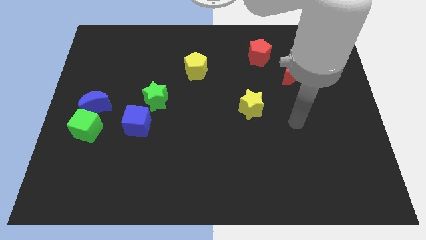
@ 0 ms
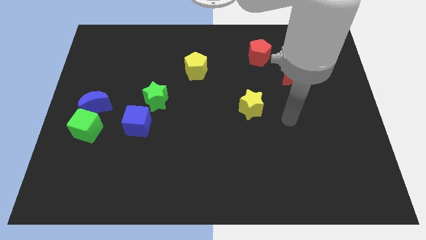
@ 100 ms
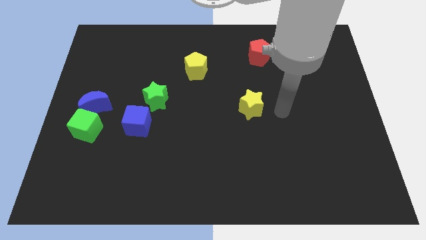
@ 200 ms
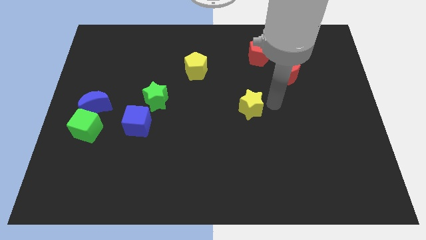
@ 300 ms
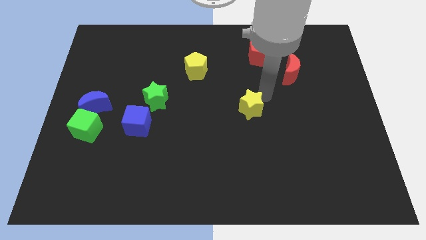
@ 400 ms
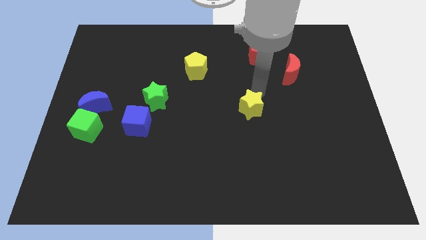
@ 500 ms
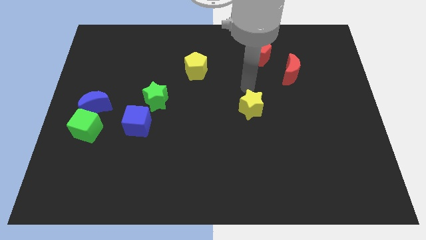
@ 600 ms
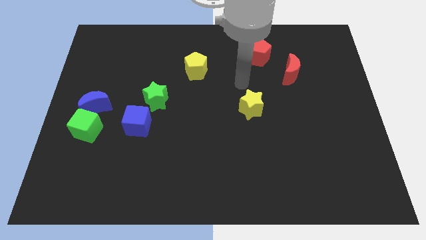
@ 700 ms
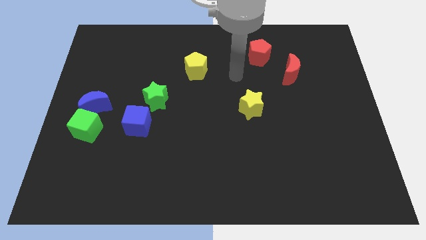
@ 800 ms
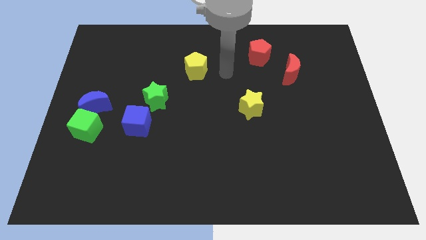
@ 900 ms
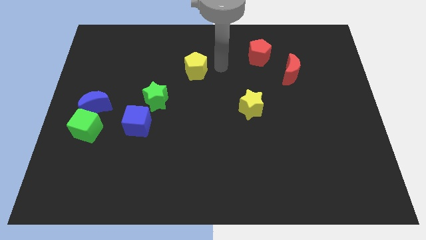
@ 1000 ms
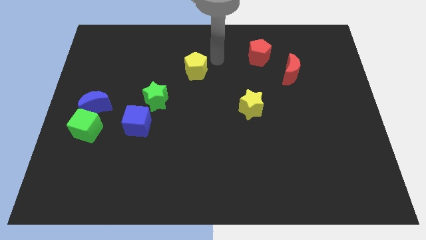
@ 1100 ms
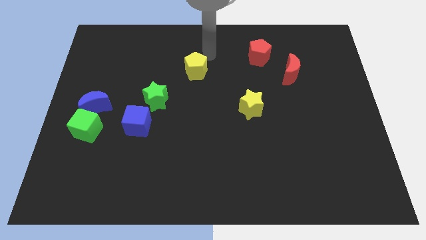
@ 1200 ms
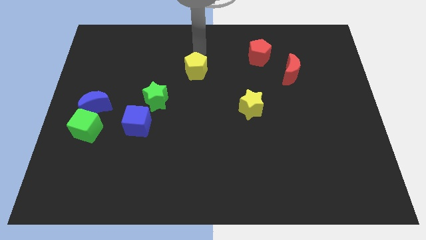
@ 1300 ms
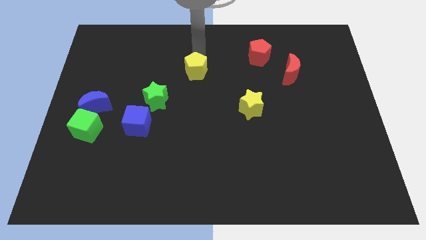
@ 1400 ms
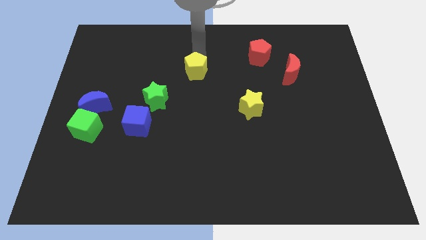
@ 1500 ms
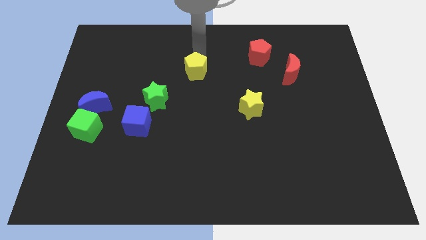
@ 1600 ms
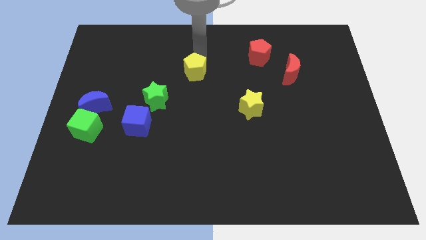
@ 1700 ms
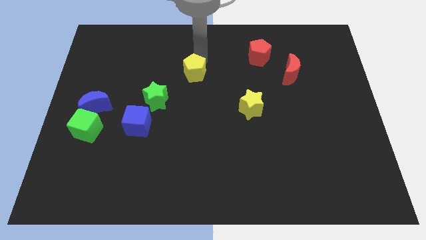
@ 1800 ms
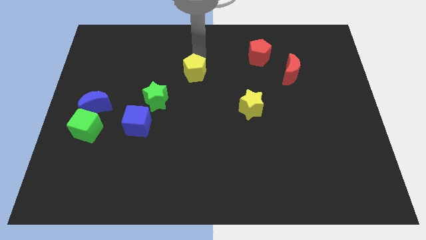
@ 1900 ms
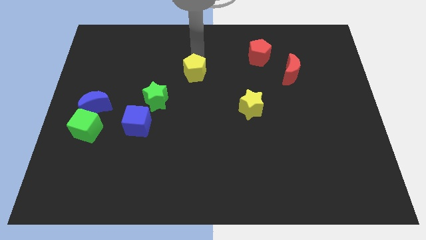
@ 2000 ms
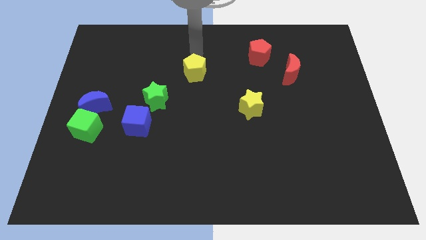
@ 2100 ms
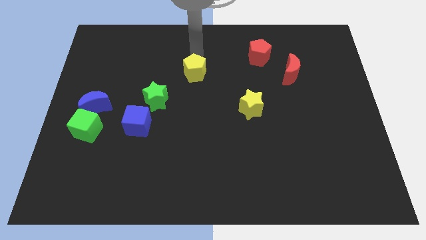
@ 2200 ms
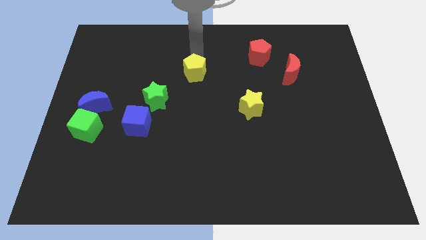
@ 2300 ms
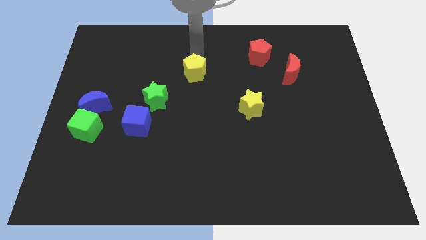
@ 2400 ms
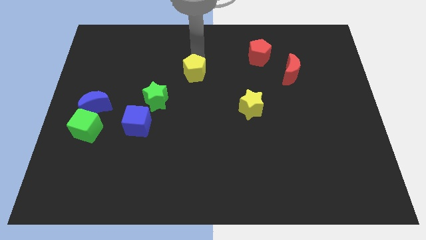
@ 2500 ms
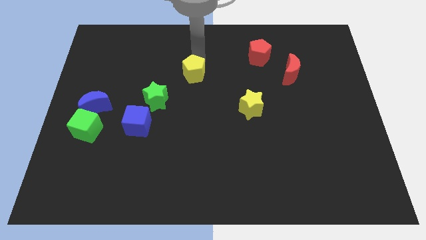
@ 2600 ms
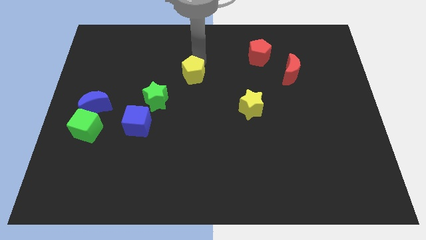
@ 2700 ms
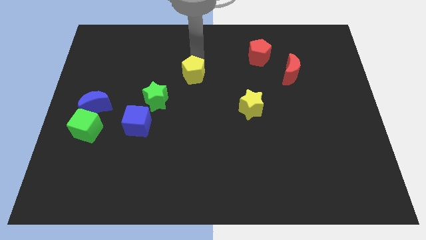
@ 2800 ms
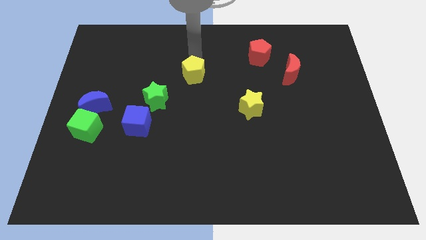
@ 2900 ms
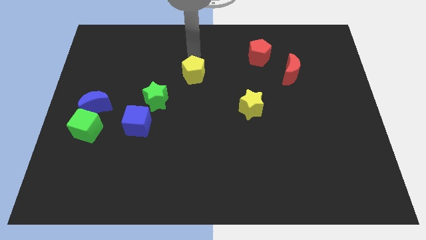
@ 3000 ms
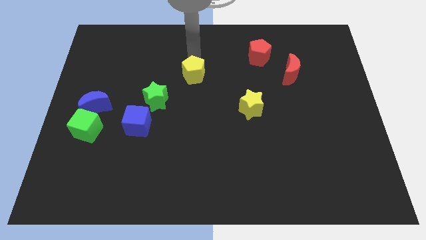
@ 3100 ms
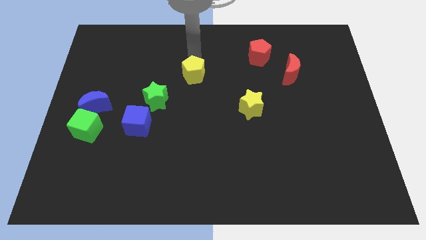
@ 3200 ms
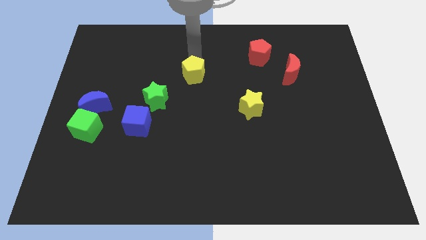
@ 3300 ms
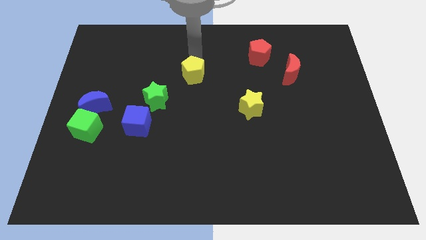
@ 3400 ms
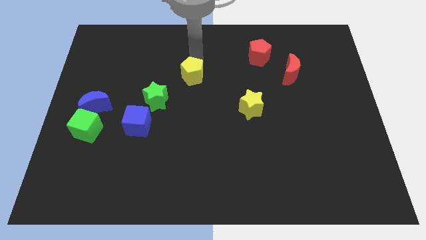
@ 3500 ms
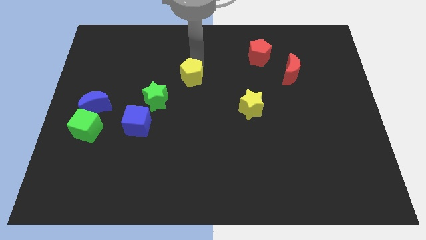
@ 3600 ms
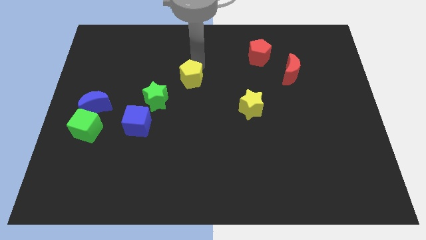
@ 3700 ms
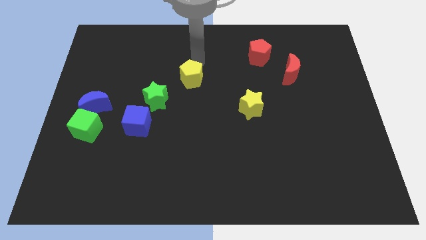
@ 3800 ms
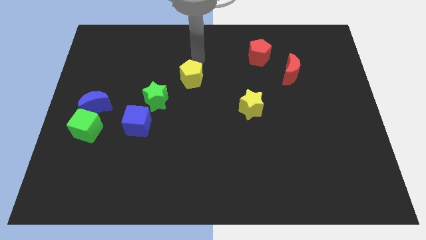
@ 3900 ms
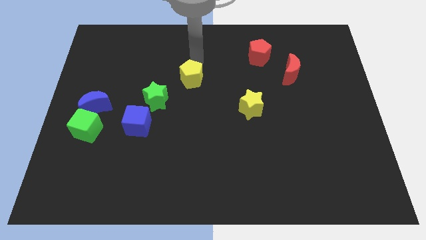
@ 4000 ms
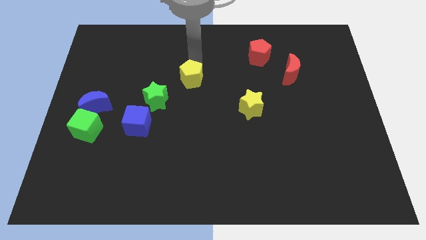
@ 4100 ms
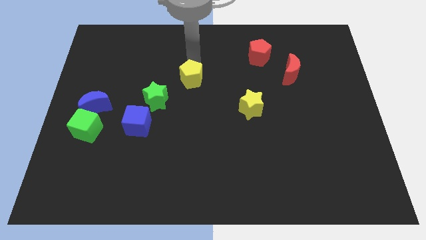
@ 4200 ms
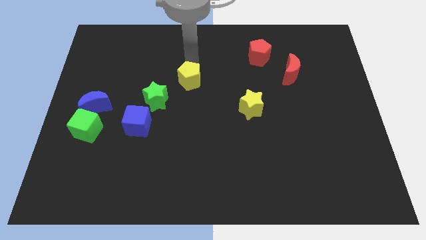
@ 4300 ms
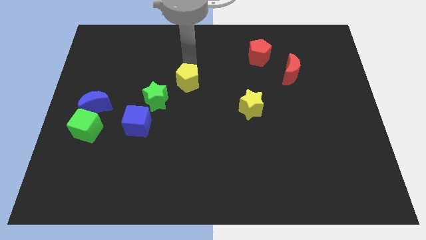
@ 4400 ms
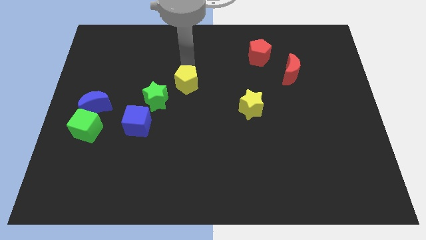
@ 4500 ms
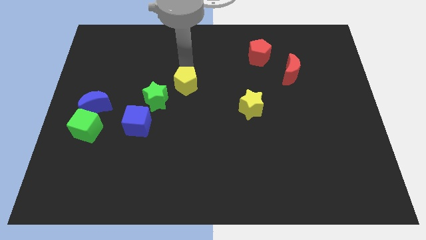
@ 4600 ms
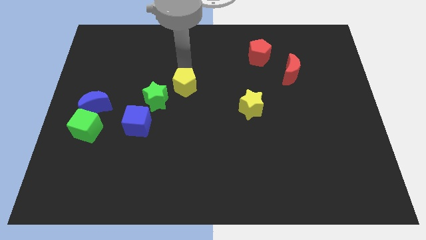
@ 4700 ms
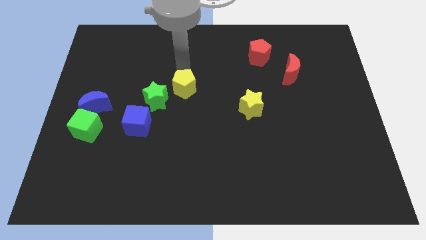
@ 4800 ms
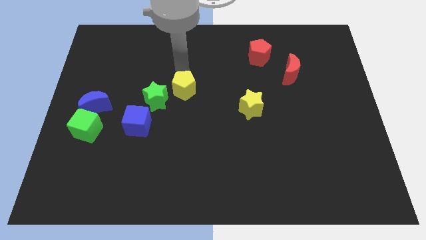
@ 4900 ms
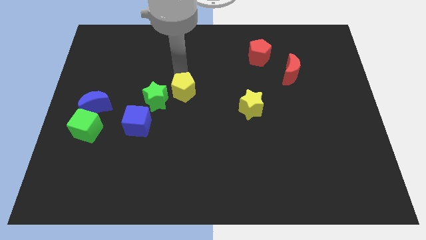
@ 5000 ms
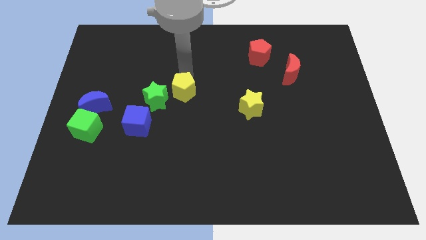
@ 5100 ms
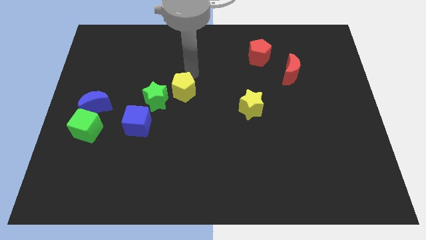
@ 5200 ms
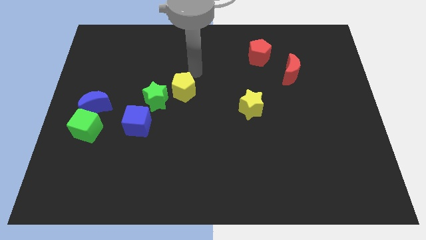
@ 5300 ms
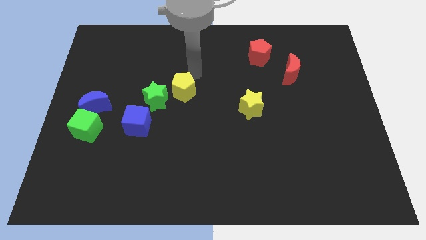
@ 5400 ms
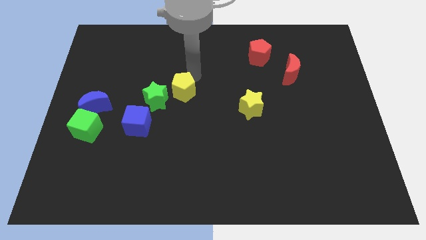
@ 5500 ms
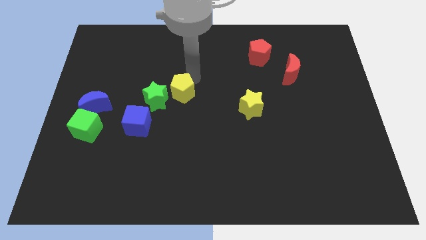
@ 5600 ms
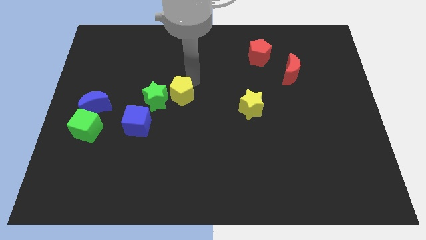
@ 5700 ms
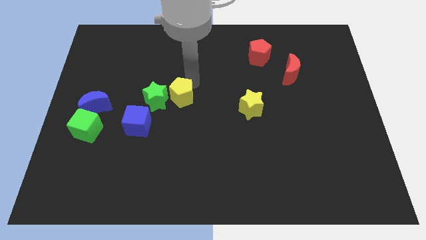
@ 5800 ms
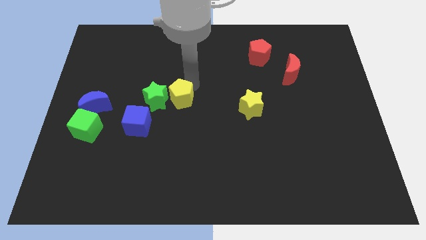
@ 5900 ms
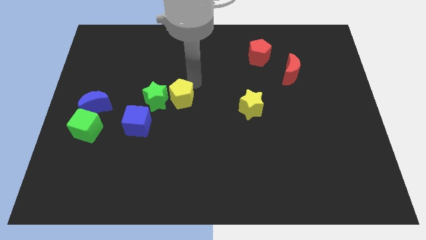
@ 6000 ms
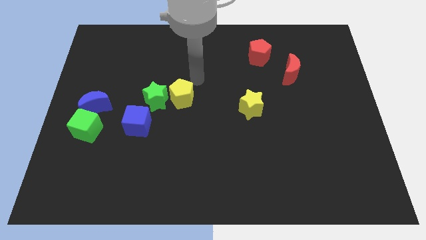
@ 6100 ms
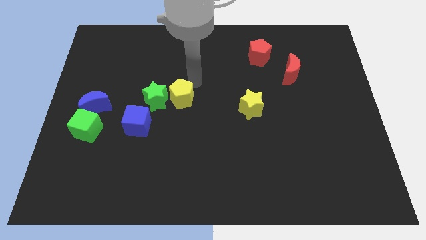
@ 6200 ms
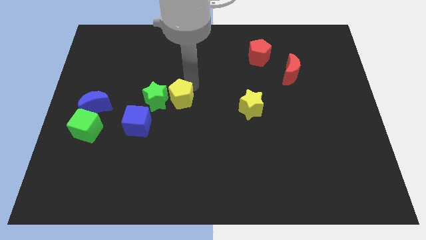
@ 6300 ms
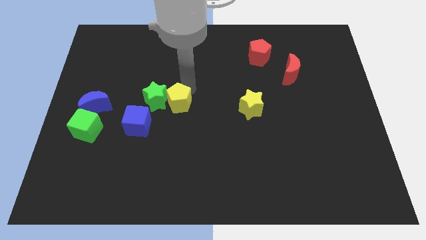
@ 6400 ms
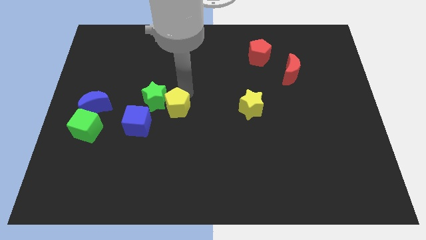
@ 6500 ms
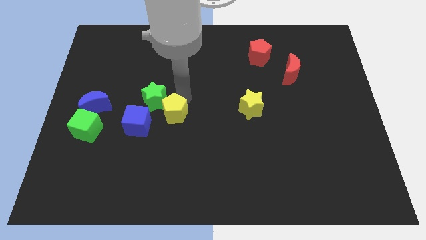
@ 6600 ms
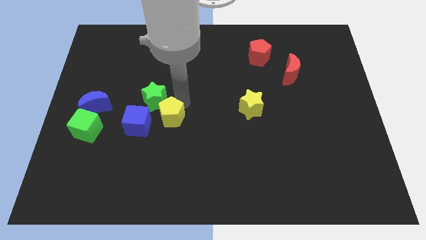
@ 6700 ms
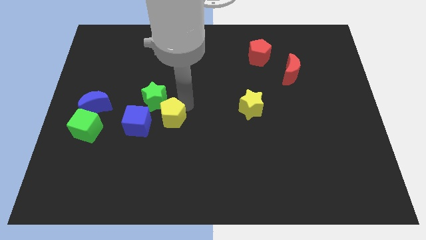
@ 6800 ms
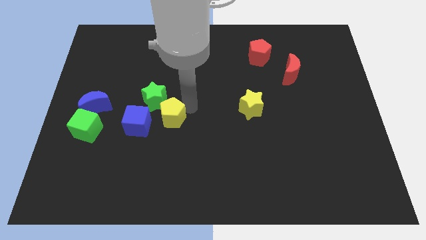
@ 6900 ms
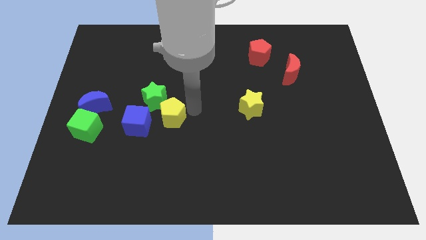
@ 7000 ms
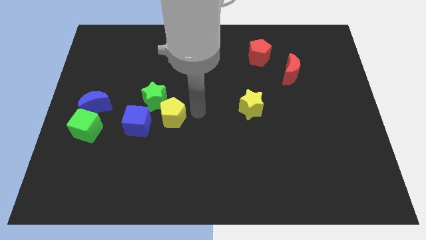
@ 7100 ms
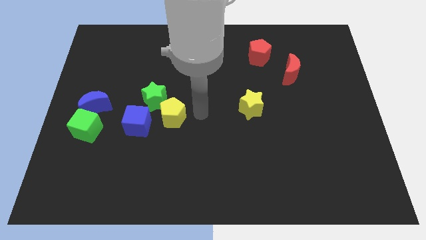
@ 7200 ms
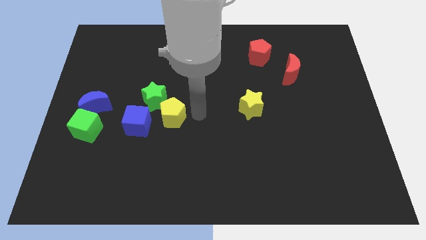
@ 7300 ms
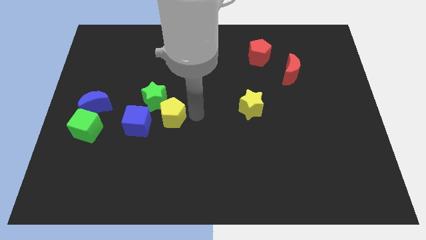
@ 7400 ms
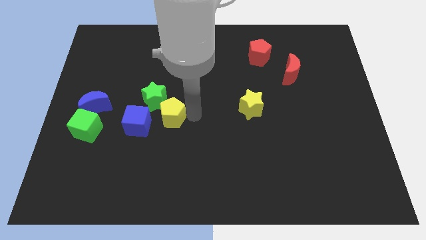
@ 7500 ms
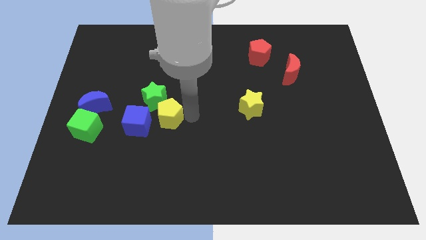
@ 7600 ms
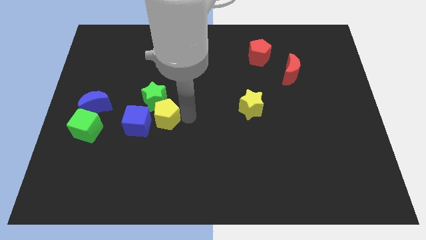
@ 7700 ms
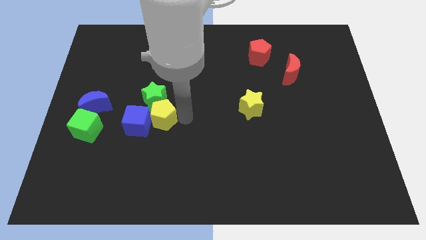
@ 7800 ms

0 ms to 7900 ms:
put the yellow pentagon close to the blue cube
